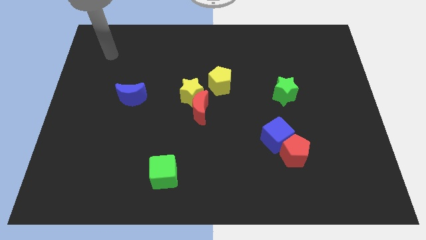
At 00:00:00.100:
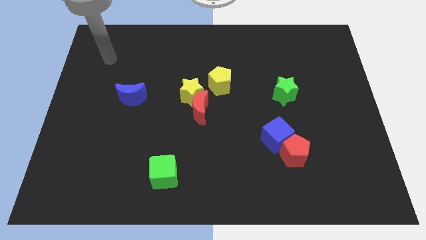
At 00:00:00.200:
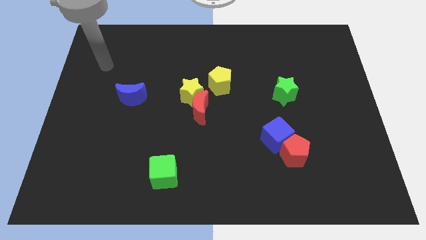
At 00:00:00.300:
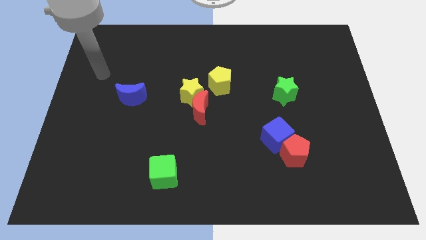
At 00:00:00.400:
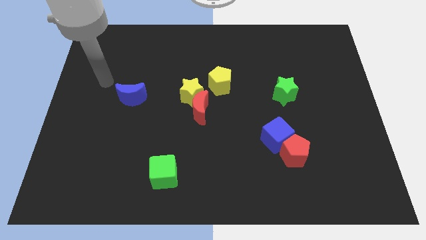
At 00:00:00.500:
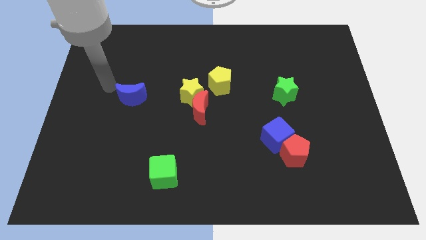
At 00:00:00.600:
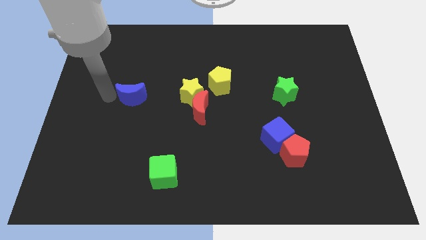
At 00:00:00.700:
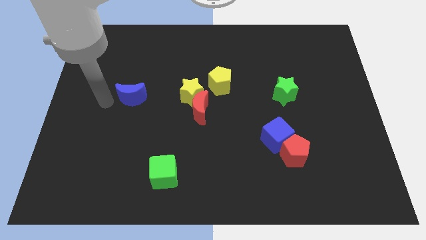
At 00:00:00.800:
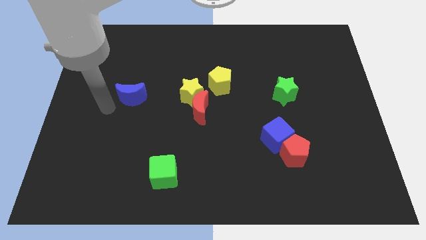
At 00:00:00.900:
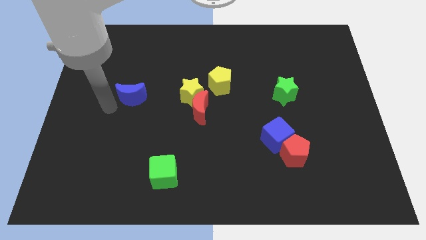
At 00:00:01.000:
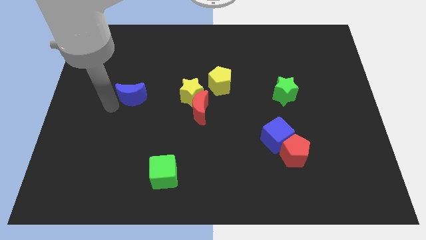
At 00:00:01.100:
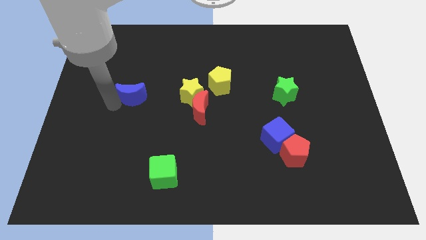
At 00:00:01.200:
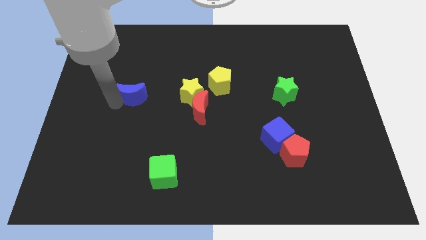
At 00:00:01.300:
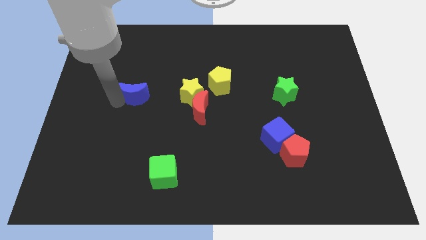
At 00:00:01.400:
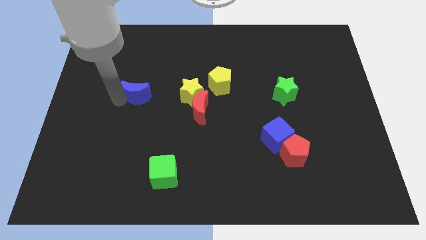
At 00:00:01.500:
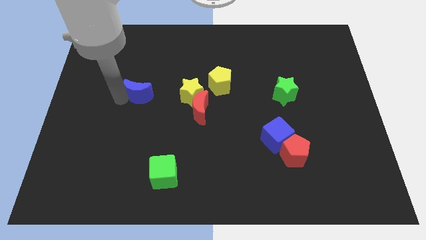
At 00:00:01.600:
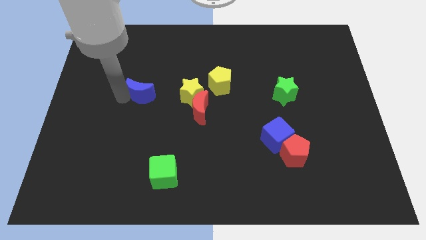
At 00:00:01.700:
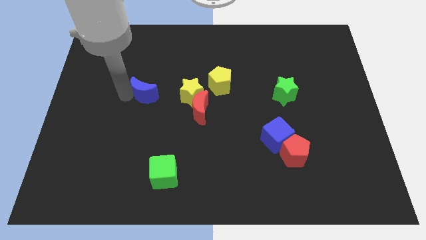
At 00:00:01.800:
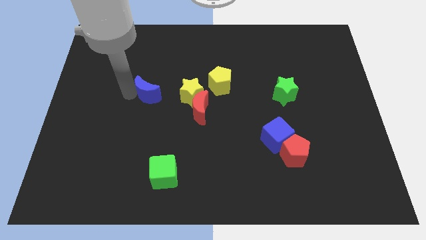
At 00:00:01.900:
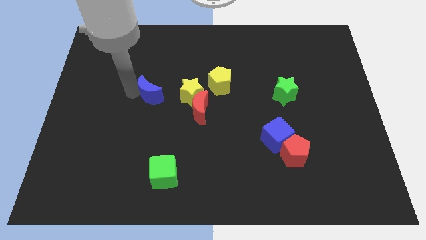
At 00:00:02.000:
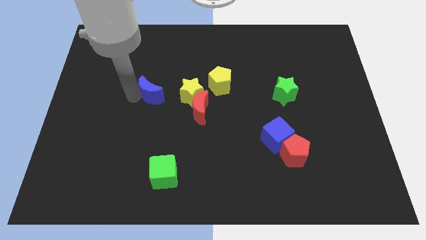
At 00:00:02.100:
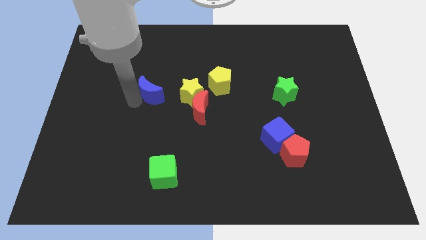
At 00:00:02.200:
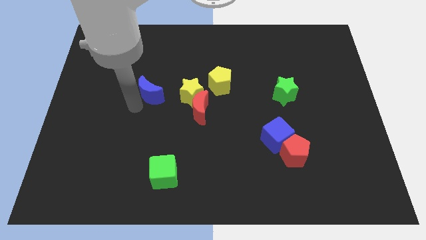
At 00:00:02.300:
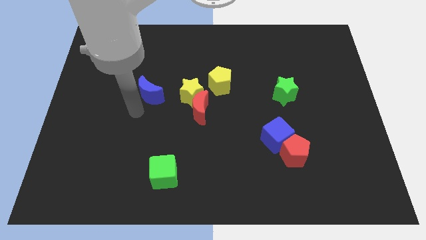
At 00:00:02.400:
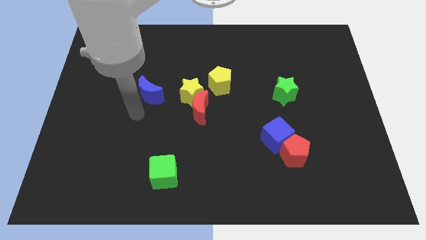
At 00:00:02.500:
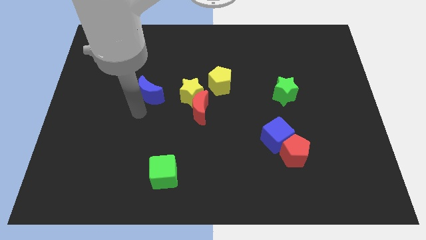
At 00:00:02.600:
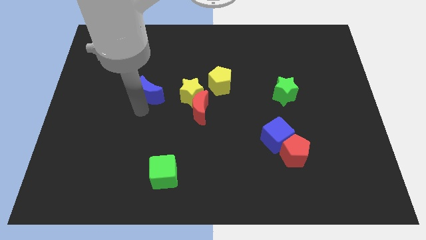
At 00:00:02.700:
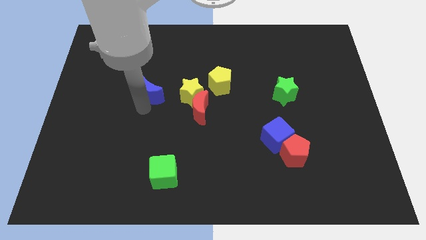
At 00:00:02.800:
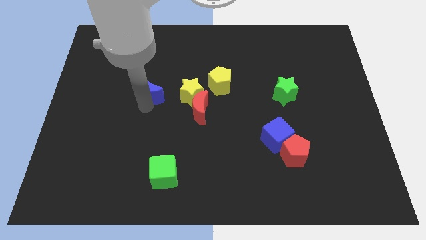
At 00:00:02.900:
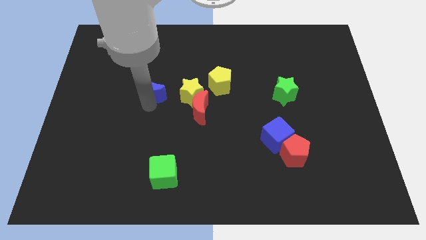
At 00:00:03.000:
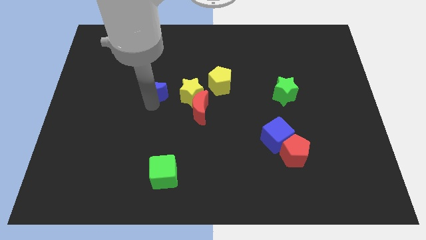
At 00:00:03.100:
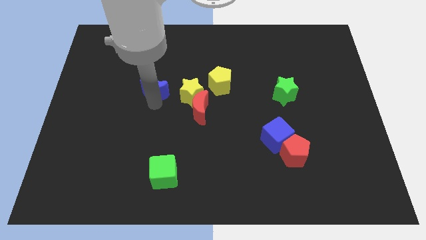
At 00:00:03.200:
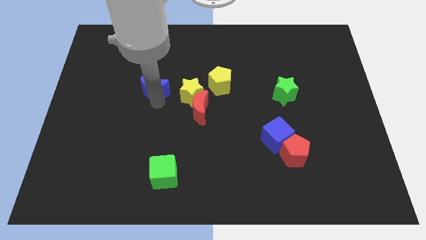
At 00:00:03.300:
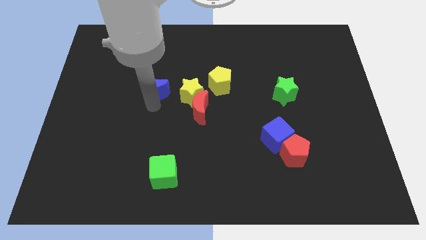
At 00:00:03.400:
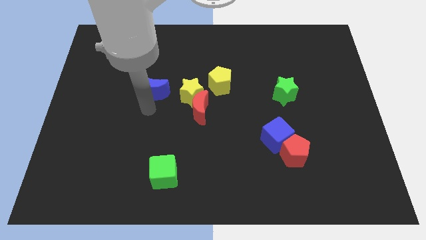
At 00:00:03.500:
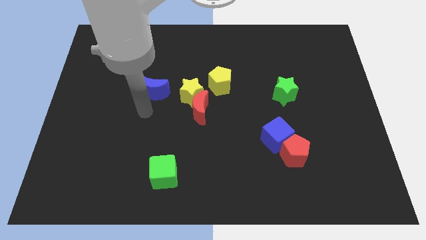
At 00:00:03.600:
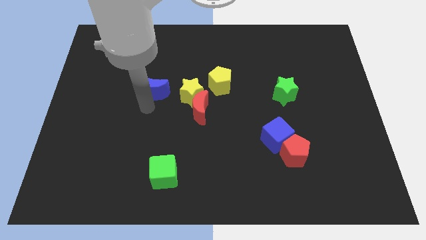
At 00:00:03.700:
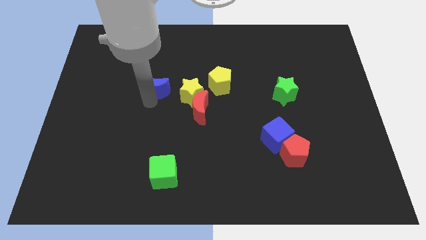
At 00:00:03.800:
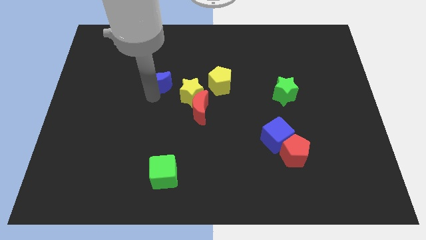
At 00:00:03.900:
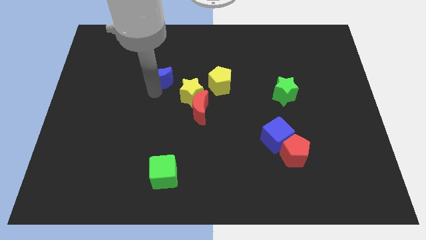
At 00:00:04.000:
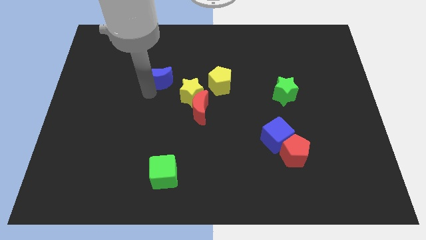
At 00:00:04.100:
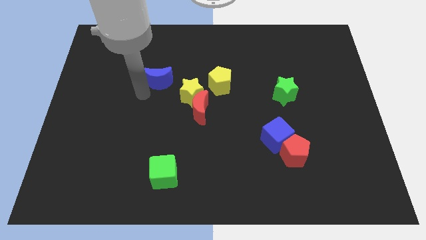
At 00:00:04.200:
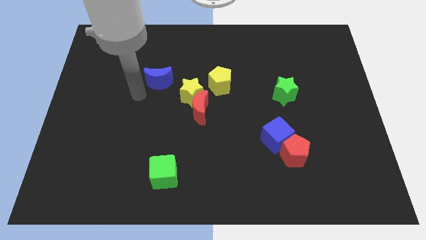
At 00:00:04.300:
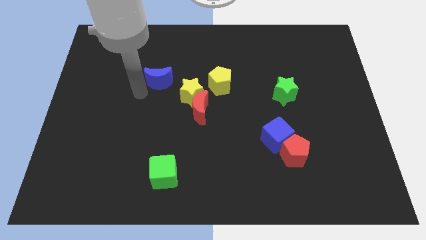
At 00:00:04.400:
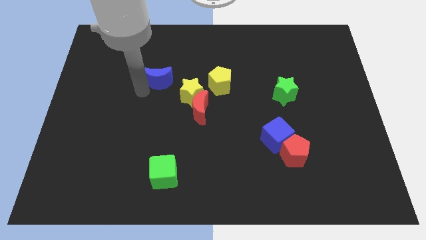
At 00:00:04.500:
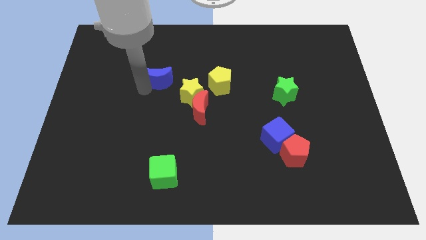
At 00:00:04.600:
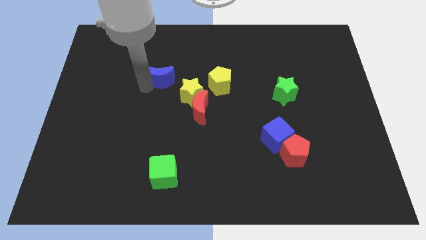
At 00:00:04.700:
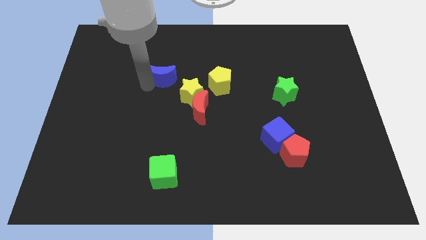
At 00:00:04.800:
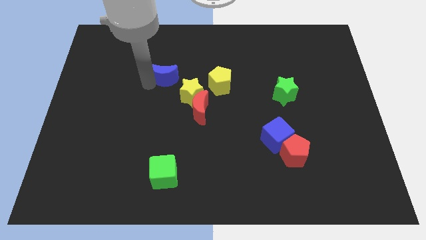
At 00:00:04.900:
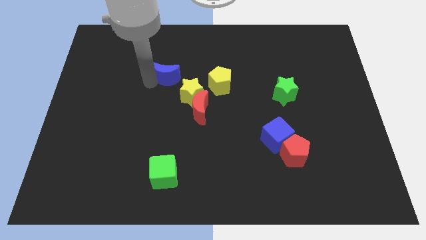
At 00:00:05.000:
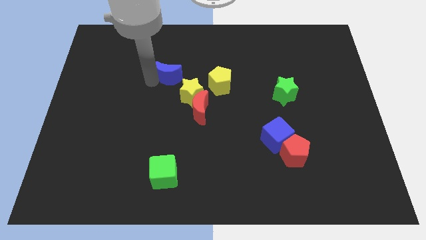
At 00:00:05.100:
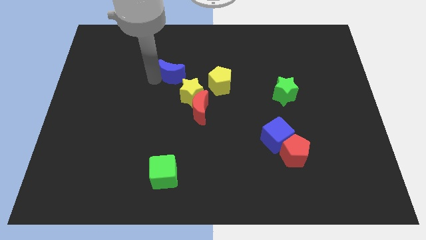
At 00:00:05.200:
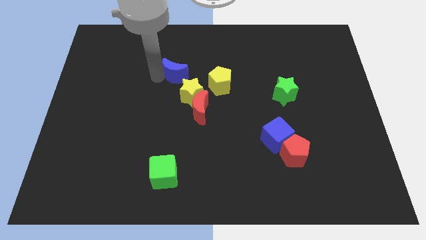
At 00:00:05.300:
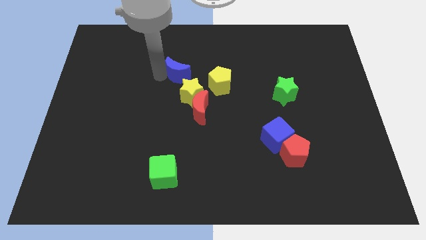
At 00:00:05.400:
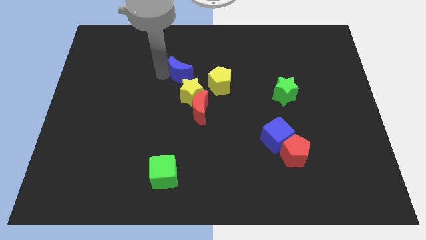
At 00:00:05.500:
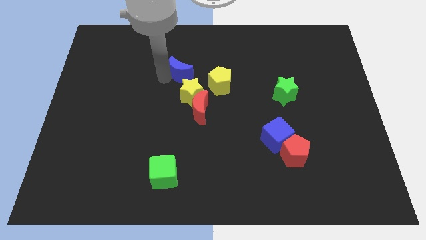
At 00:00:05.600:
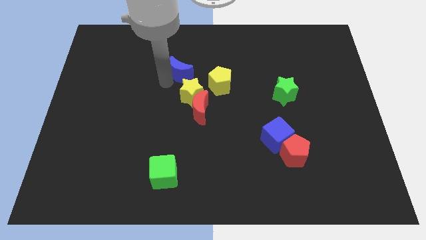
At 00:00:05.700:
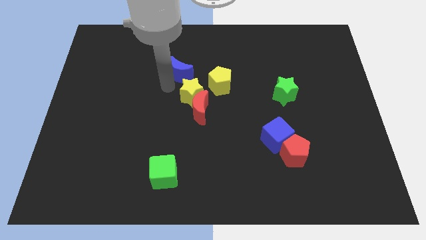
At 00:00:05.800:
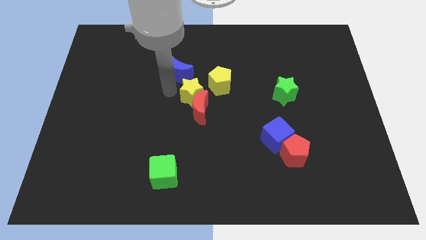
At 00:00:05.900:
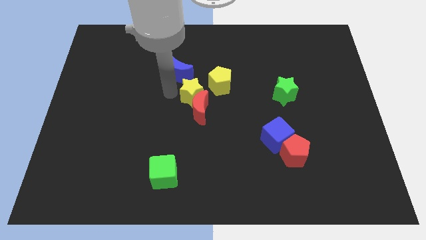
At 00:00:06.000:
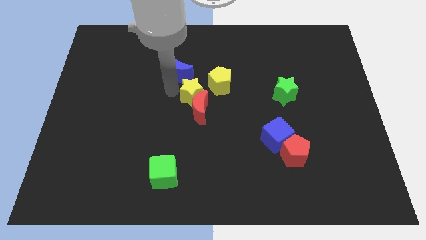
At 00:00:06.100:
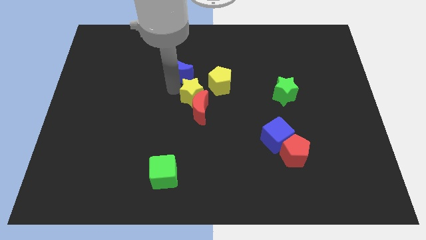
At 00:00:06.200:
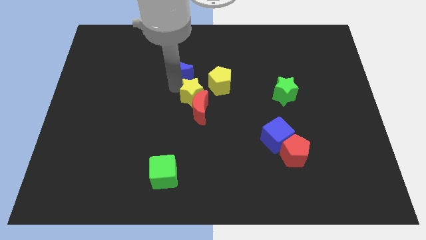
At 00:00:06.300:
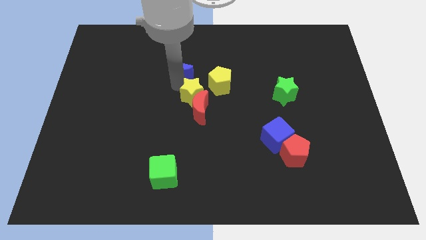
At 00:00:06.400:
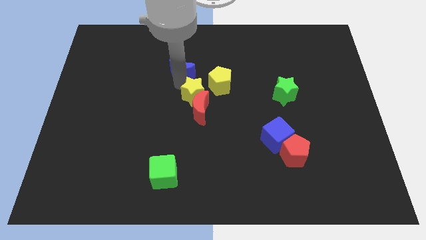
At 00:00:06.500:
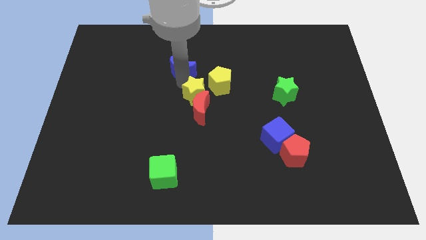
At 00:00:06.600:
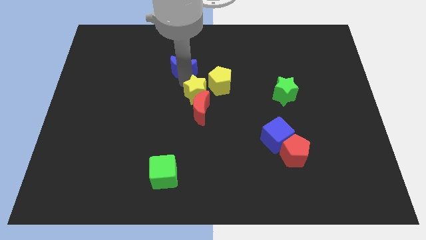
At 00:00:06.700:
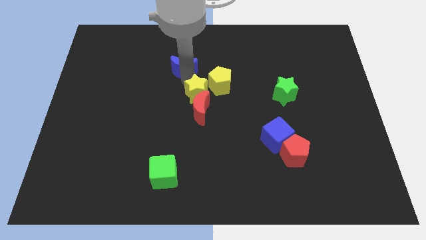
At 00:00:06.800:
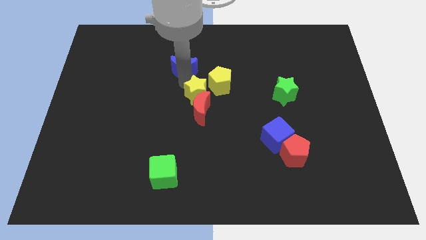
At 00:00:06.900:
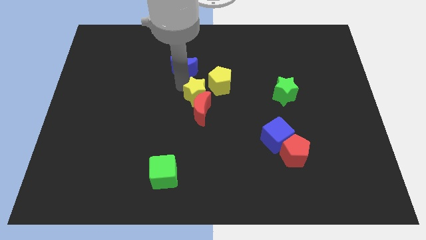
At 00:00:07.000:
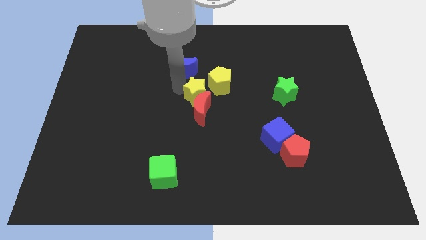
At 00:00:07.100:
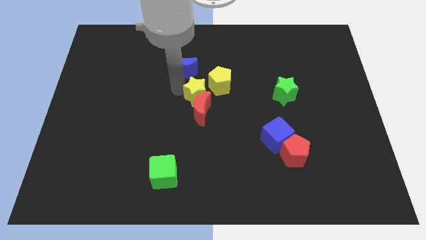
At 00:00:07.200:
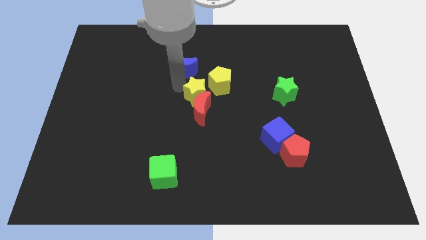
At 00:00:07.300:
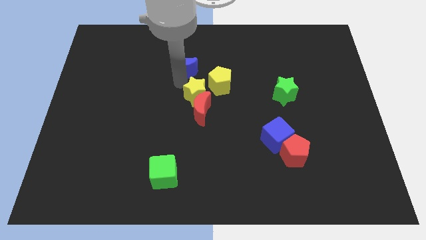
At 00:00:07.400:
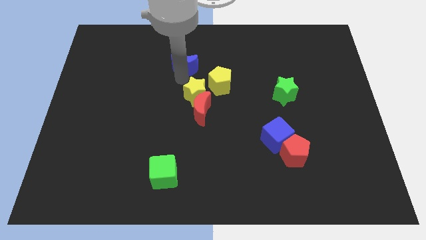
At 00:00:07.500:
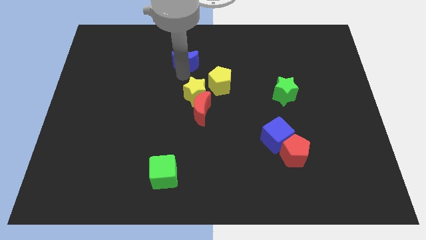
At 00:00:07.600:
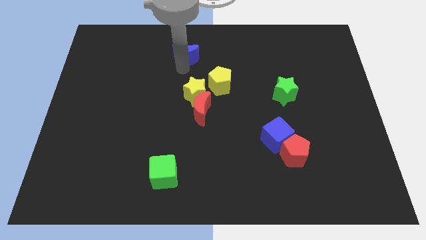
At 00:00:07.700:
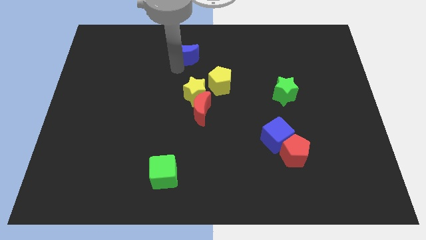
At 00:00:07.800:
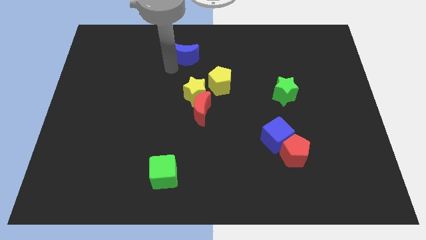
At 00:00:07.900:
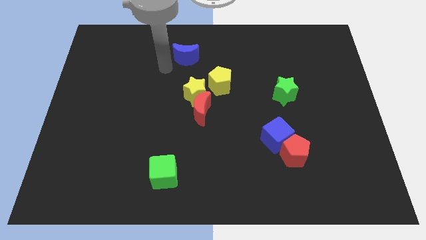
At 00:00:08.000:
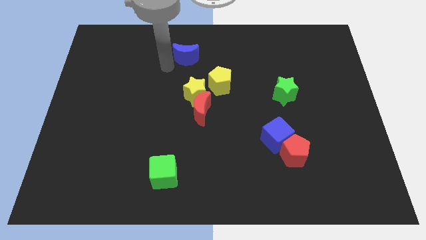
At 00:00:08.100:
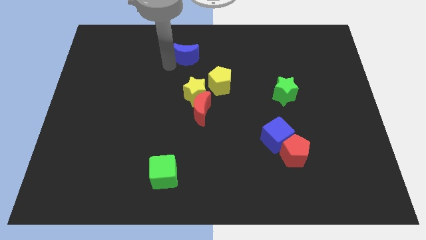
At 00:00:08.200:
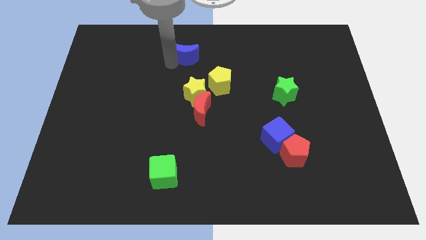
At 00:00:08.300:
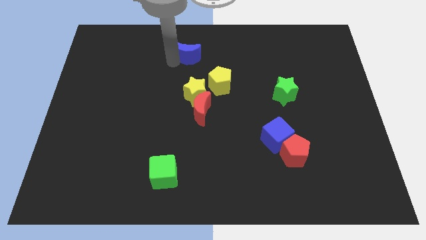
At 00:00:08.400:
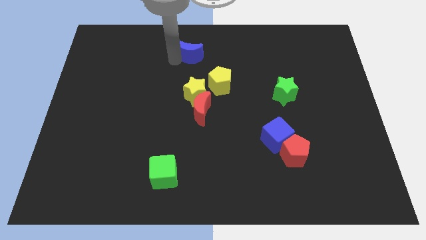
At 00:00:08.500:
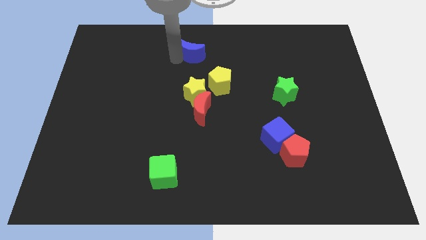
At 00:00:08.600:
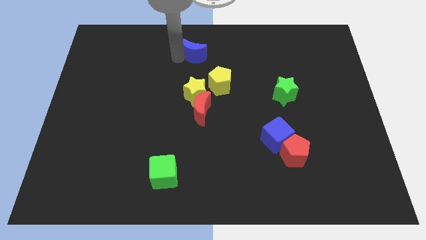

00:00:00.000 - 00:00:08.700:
slide the blue moon to the top side
